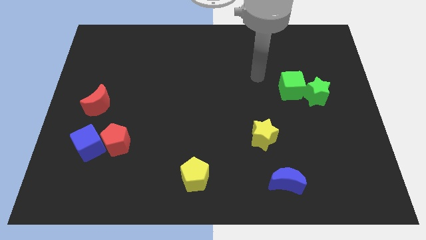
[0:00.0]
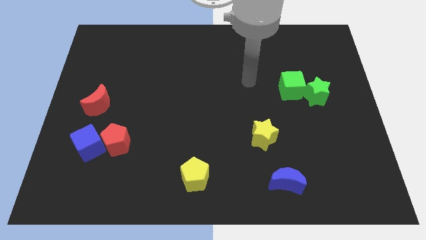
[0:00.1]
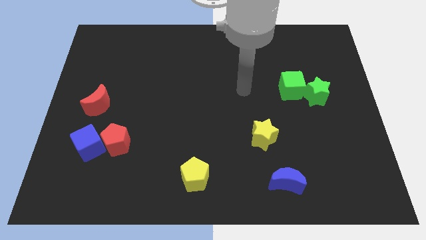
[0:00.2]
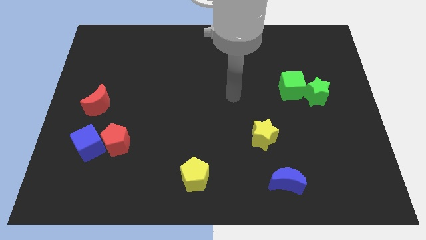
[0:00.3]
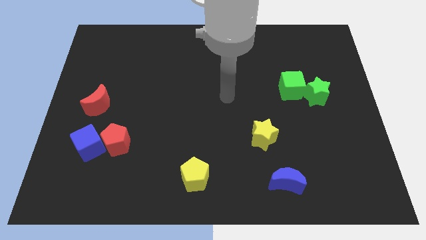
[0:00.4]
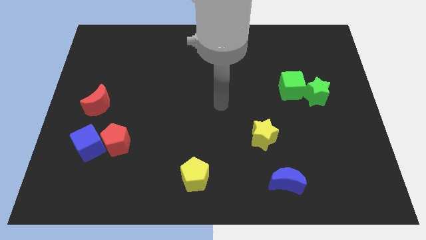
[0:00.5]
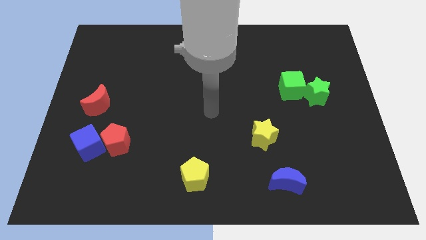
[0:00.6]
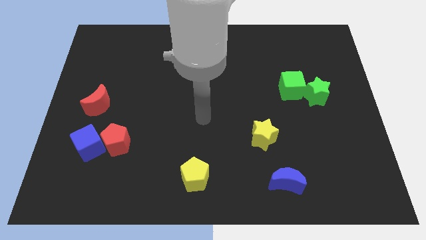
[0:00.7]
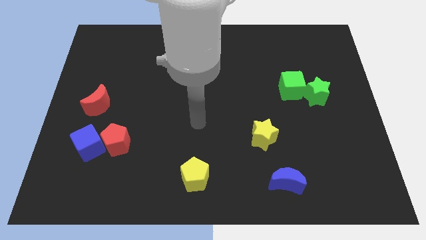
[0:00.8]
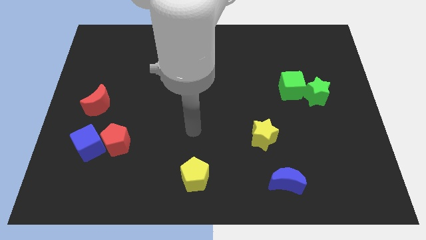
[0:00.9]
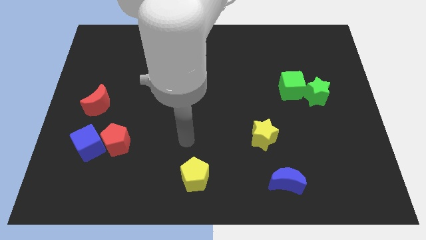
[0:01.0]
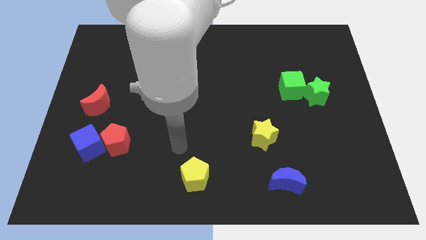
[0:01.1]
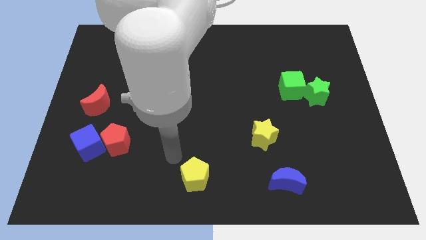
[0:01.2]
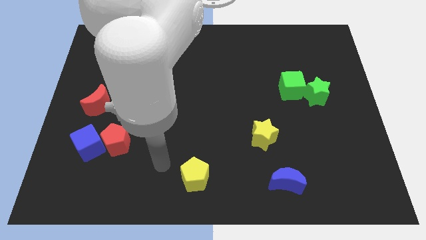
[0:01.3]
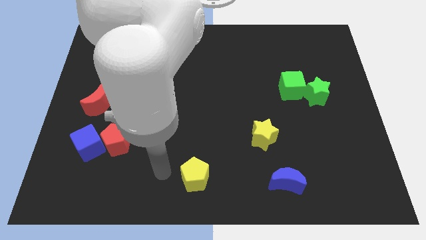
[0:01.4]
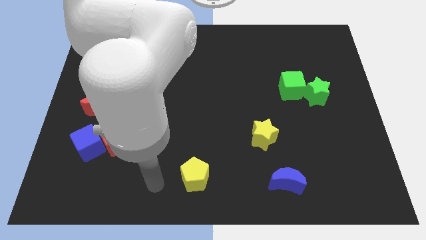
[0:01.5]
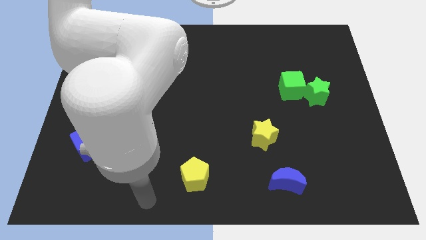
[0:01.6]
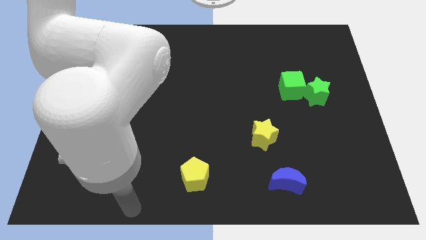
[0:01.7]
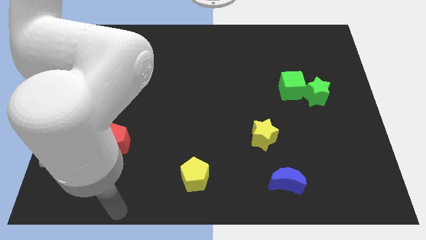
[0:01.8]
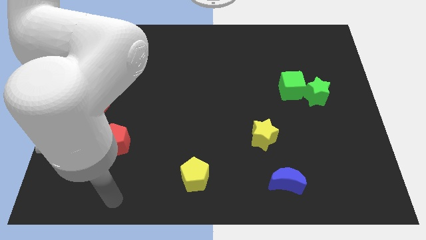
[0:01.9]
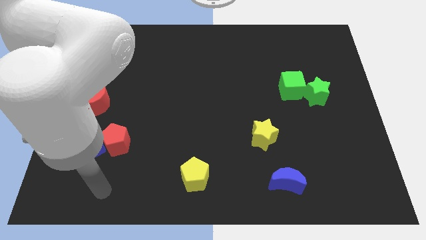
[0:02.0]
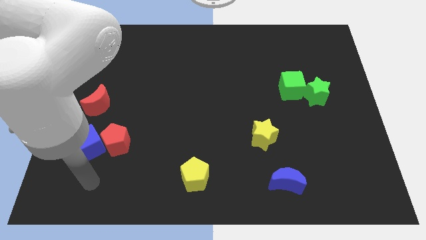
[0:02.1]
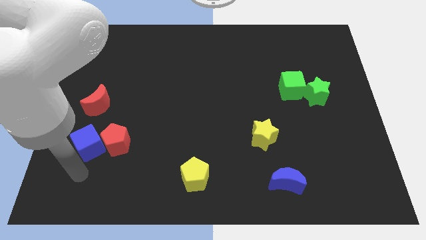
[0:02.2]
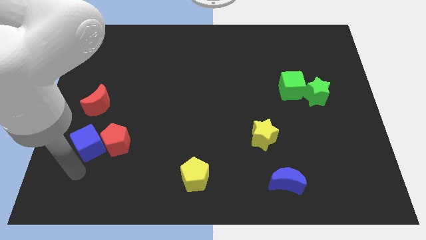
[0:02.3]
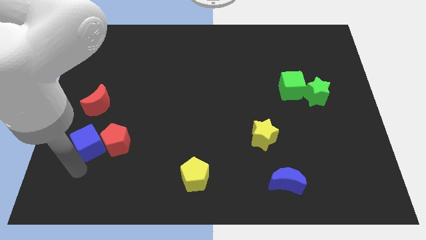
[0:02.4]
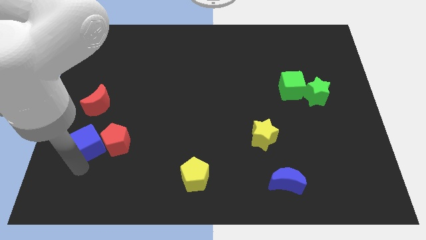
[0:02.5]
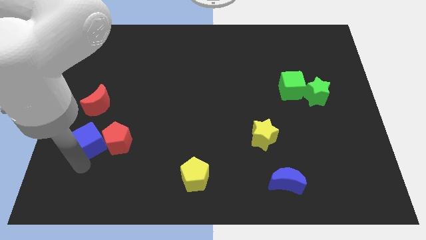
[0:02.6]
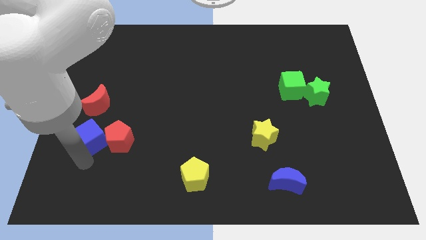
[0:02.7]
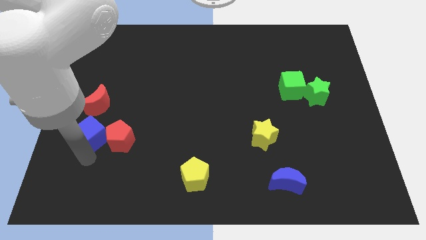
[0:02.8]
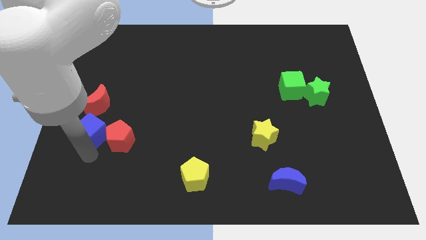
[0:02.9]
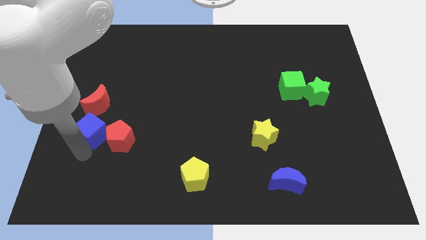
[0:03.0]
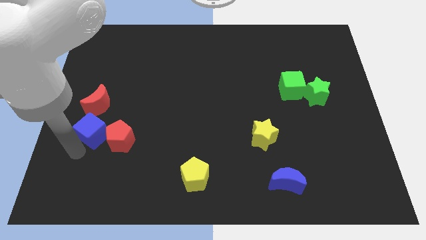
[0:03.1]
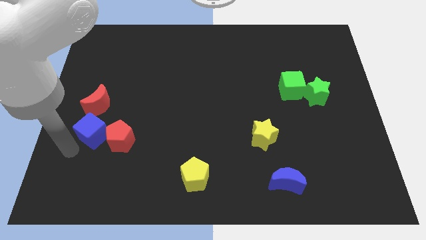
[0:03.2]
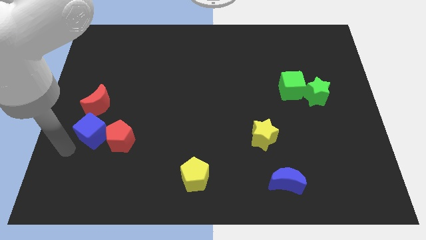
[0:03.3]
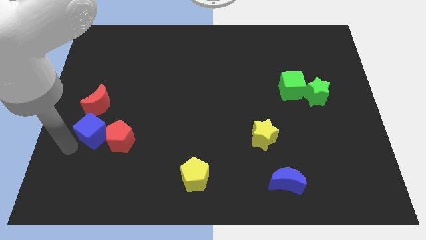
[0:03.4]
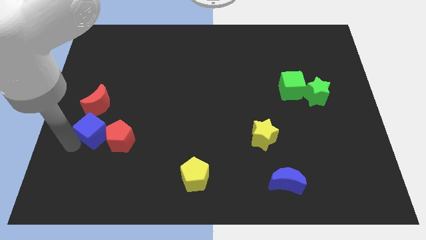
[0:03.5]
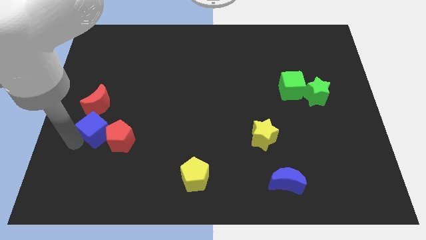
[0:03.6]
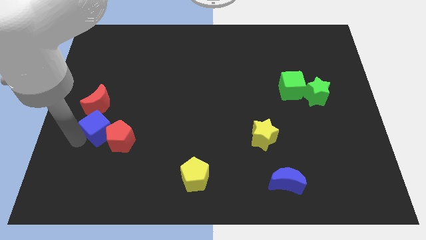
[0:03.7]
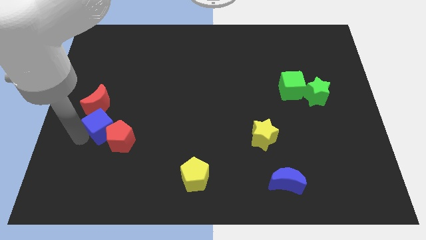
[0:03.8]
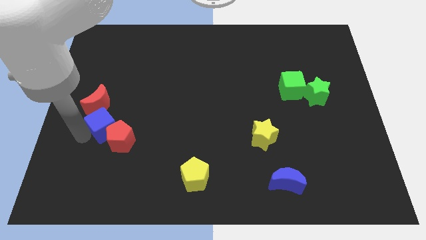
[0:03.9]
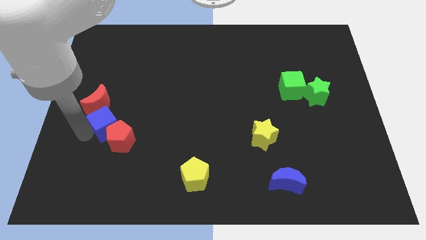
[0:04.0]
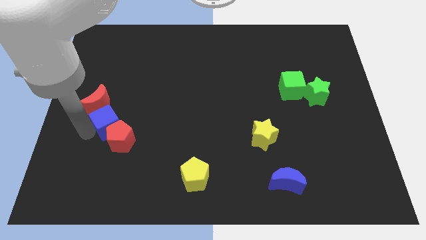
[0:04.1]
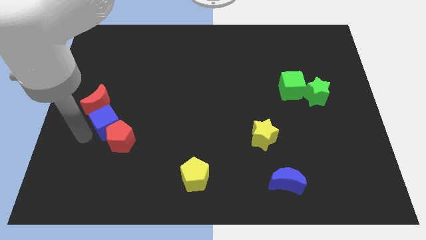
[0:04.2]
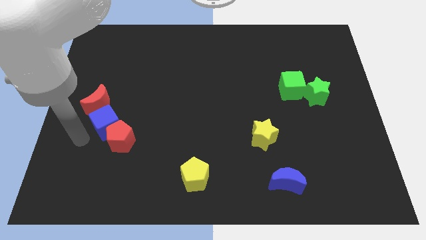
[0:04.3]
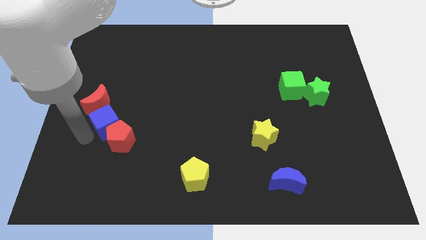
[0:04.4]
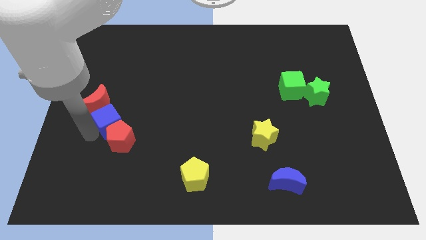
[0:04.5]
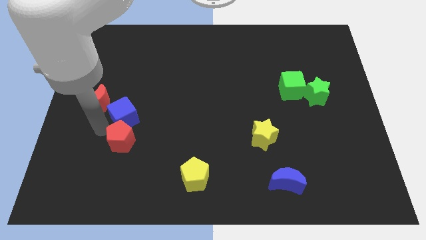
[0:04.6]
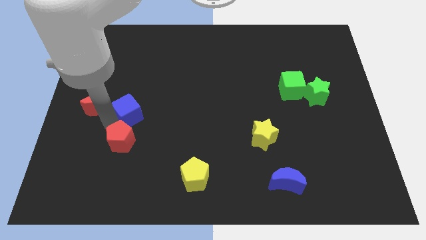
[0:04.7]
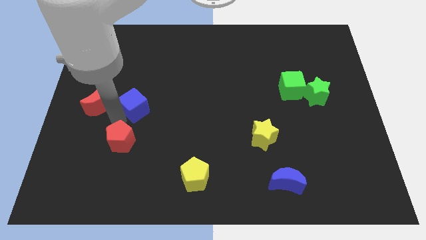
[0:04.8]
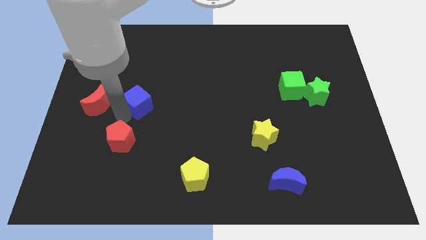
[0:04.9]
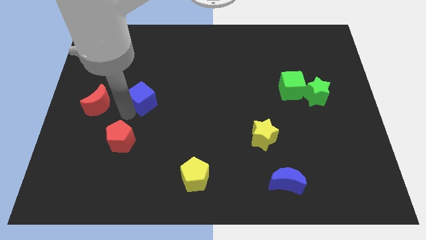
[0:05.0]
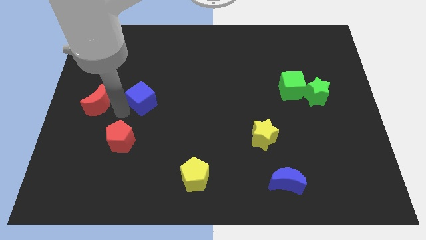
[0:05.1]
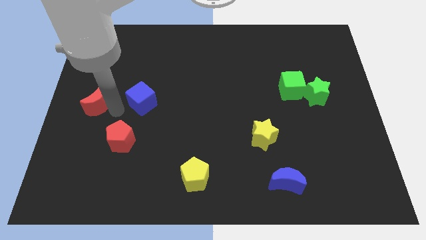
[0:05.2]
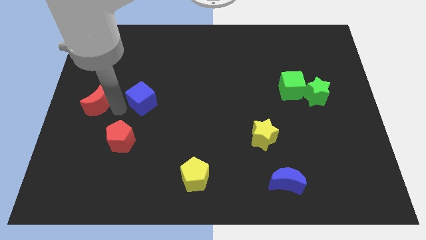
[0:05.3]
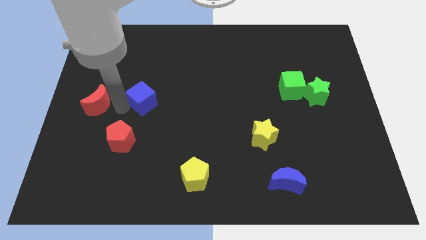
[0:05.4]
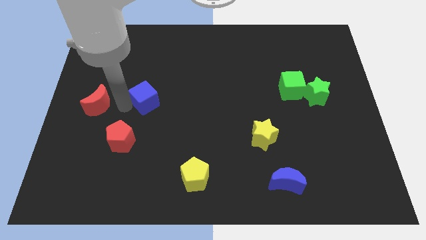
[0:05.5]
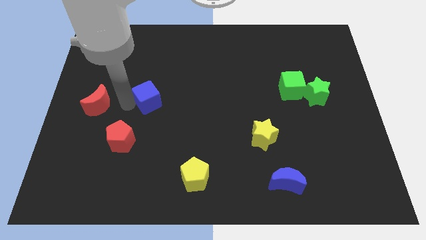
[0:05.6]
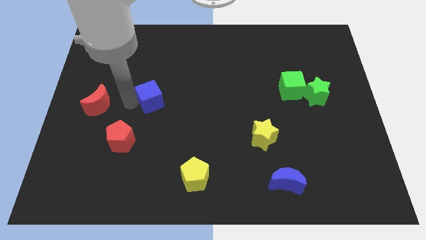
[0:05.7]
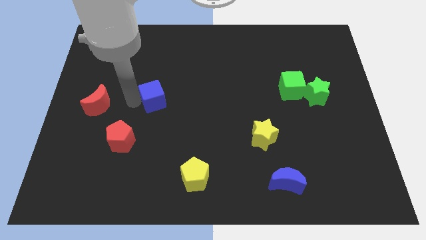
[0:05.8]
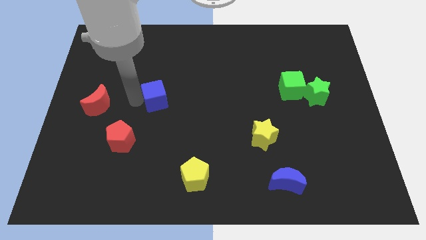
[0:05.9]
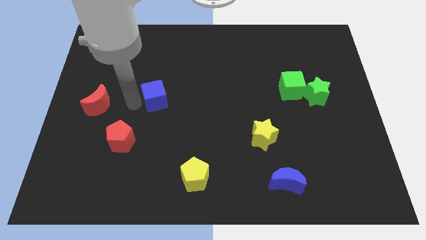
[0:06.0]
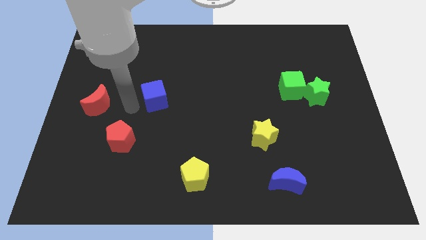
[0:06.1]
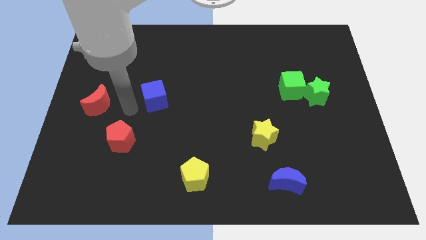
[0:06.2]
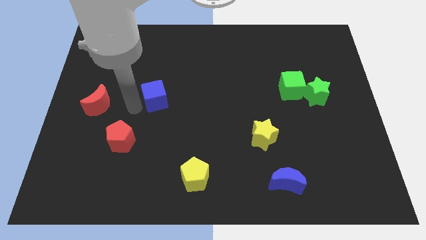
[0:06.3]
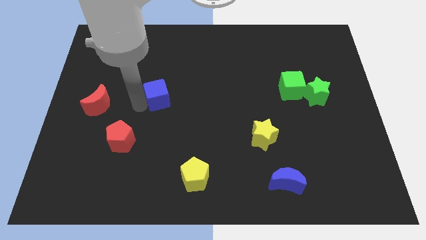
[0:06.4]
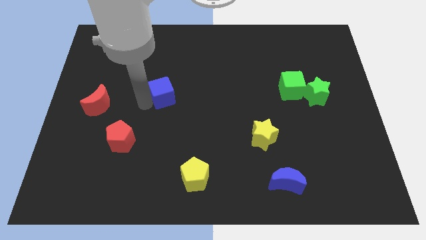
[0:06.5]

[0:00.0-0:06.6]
move the blue cube up and to the right

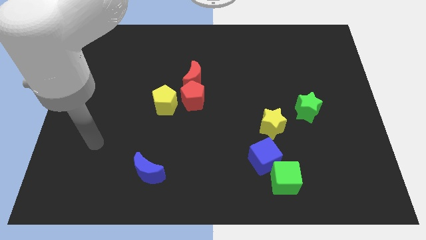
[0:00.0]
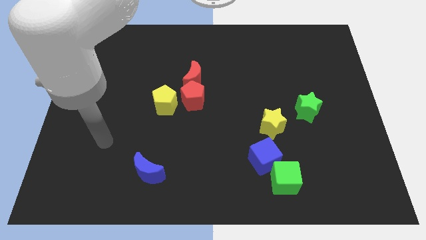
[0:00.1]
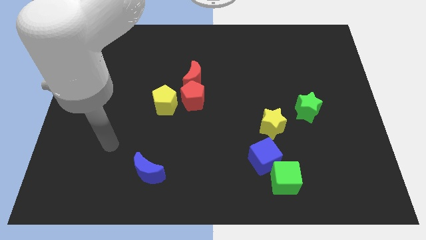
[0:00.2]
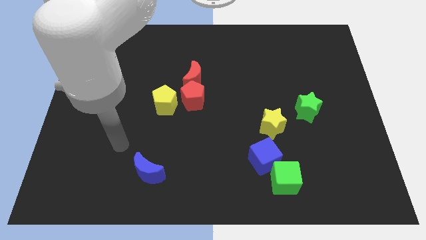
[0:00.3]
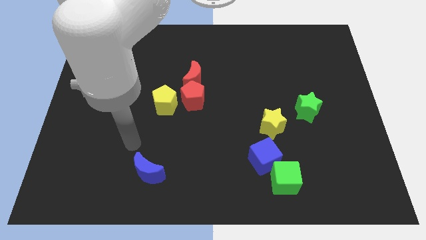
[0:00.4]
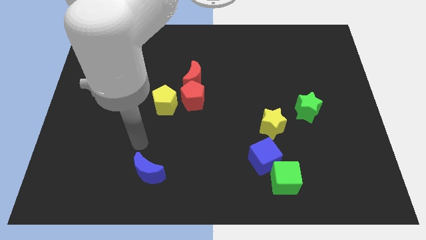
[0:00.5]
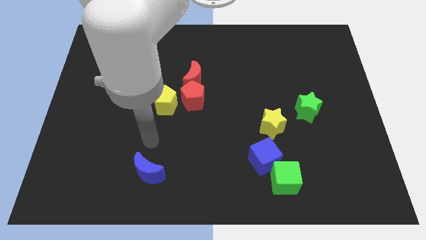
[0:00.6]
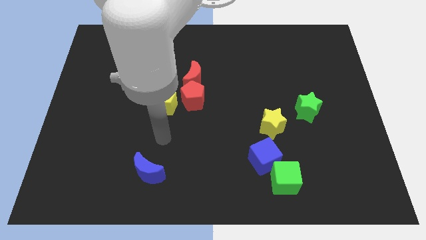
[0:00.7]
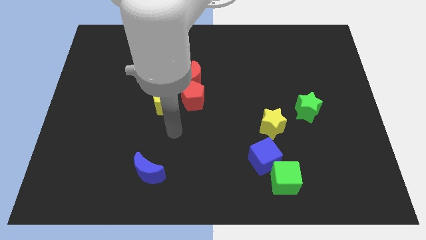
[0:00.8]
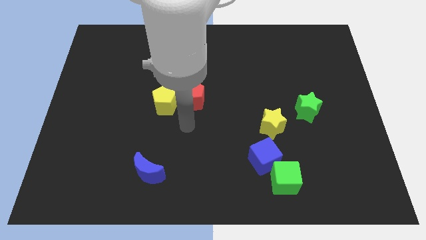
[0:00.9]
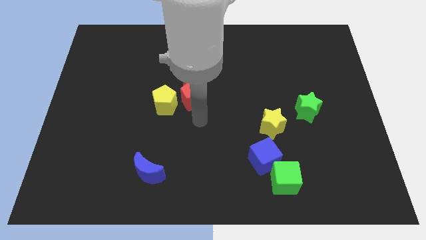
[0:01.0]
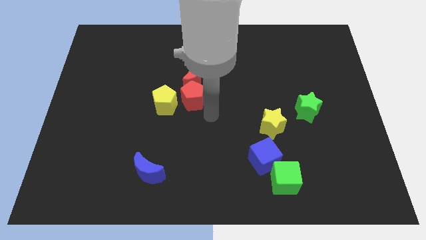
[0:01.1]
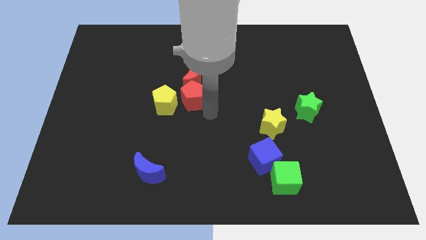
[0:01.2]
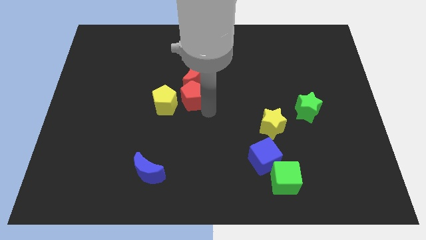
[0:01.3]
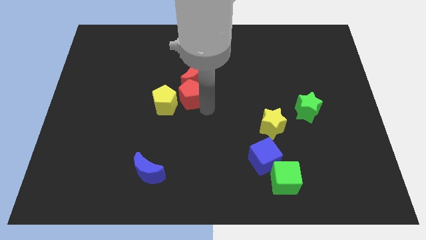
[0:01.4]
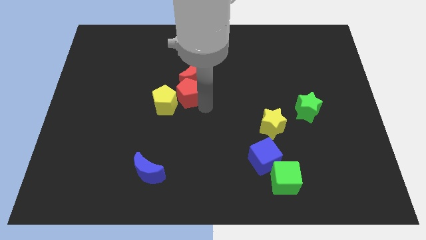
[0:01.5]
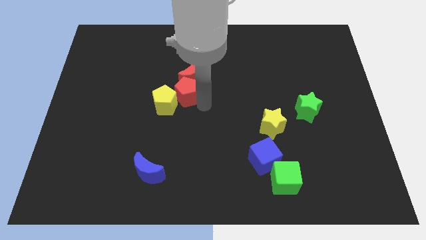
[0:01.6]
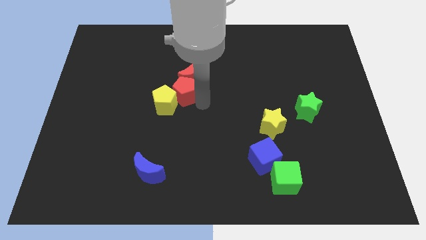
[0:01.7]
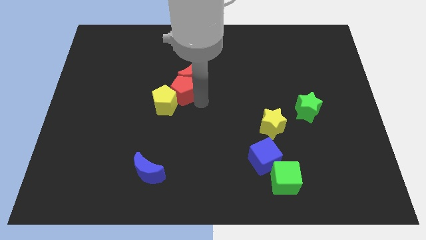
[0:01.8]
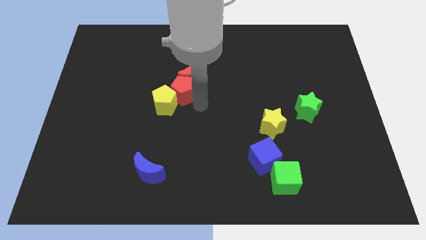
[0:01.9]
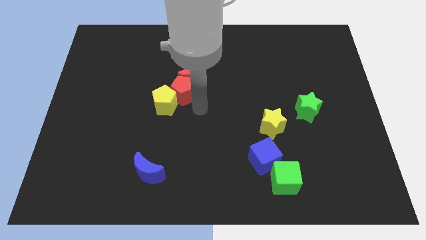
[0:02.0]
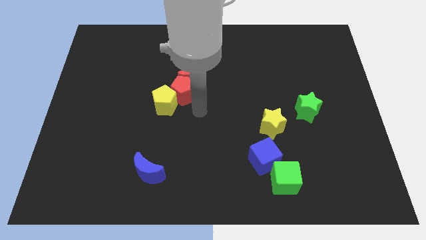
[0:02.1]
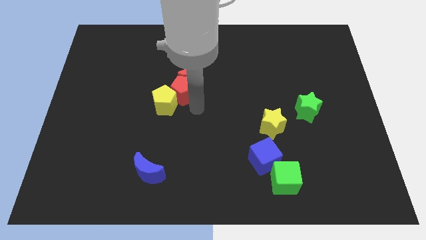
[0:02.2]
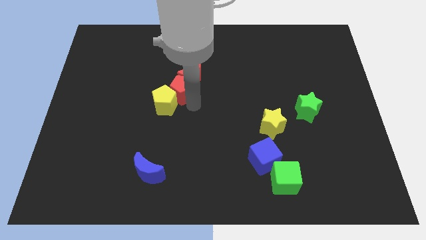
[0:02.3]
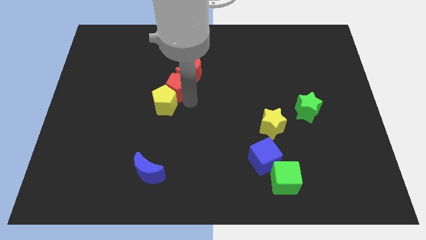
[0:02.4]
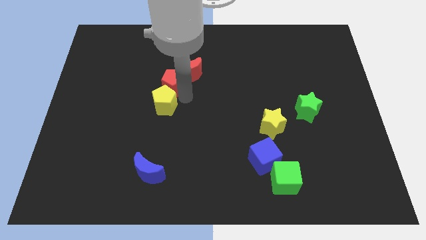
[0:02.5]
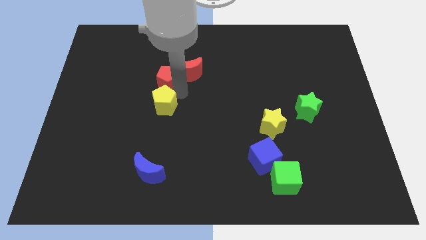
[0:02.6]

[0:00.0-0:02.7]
move the red pentagon a bit diagonally upwards and left
